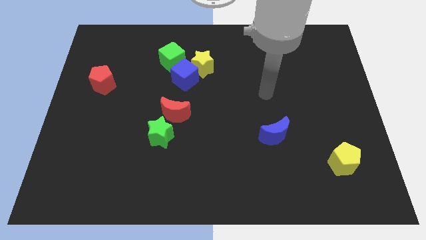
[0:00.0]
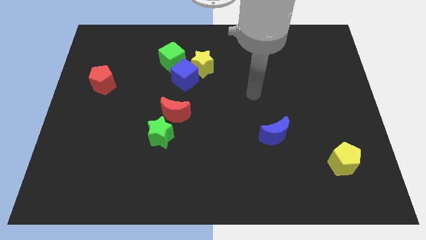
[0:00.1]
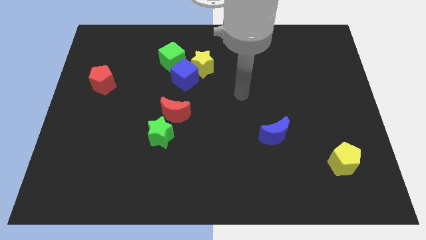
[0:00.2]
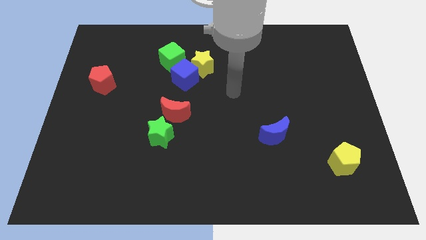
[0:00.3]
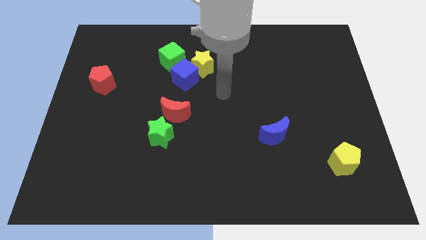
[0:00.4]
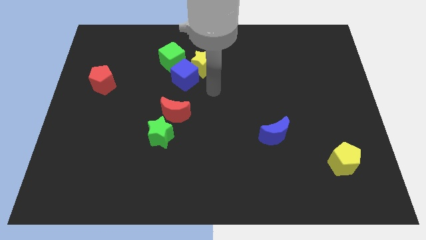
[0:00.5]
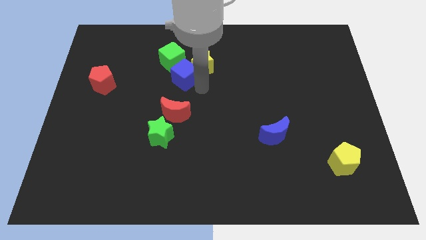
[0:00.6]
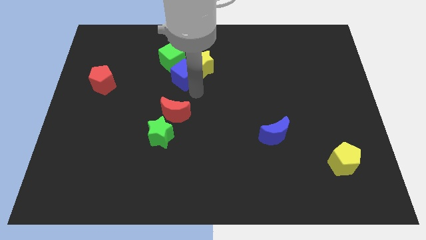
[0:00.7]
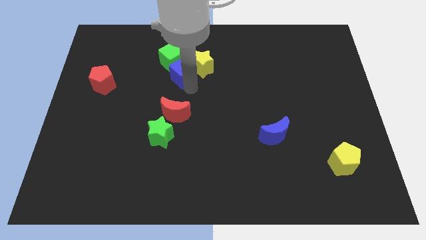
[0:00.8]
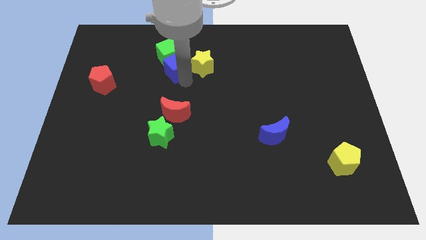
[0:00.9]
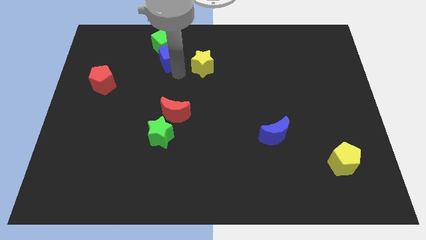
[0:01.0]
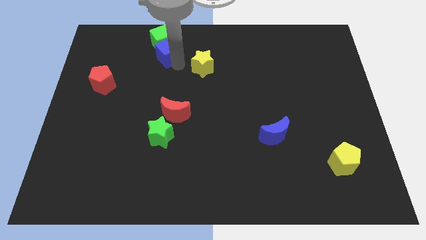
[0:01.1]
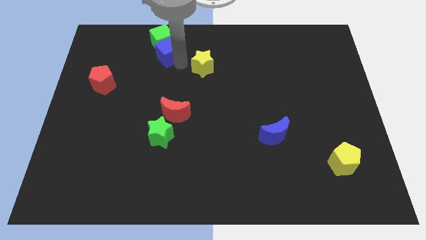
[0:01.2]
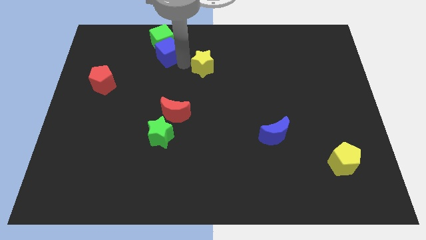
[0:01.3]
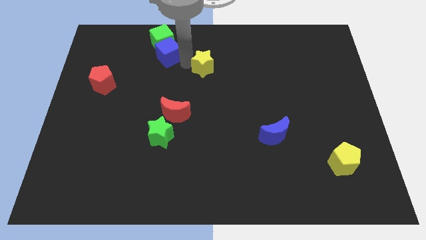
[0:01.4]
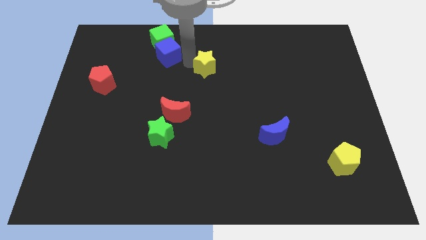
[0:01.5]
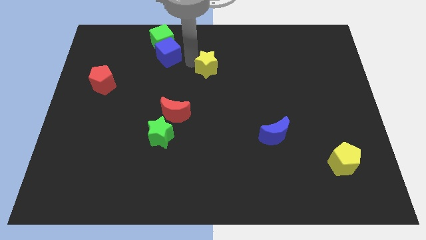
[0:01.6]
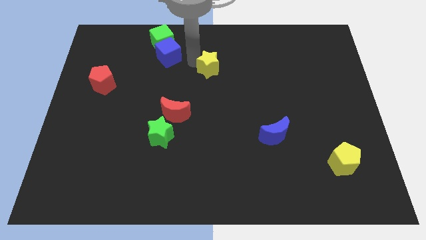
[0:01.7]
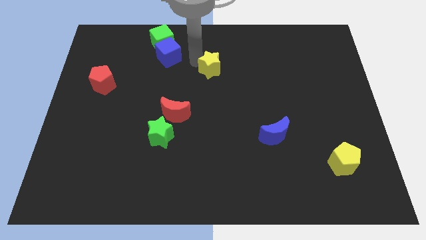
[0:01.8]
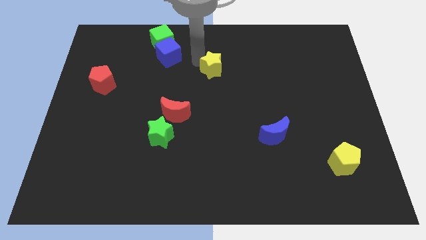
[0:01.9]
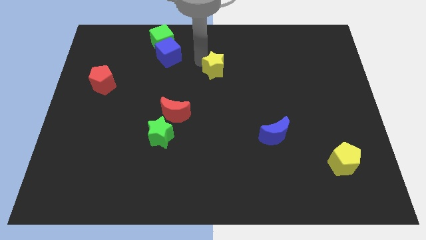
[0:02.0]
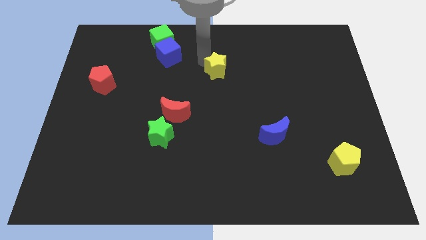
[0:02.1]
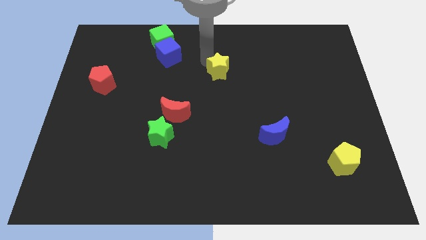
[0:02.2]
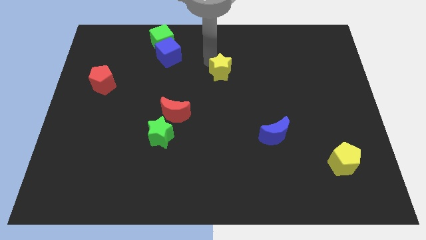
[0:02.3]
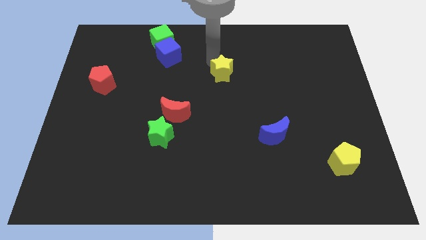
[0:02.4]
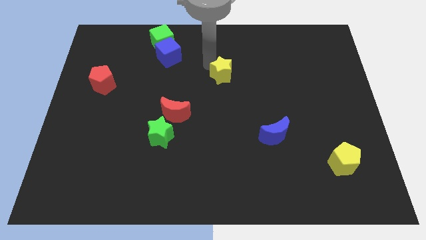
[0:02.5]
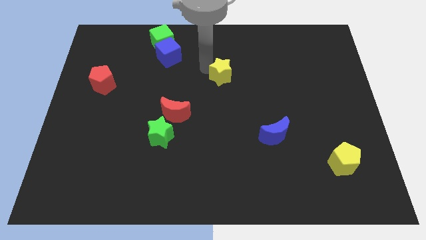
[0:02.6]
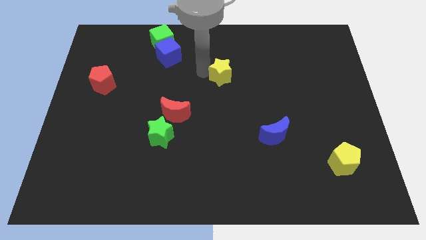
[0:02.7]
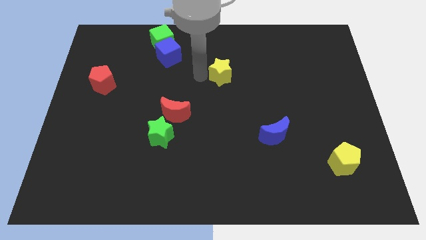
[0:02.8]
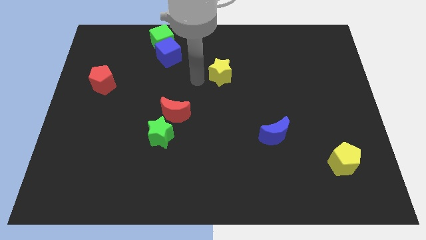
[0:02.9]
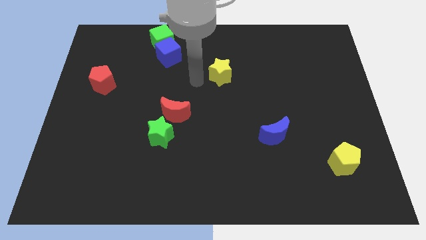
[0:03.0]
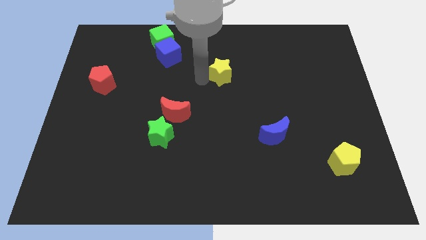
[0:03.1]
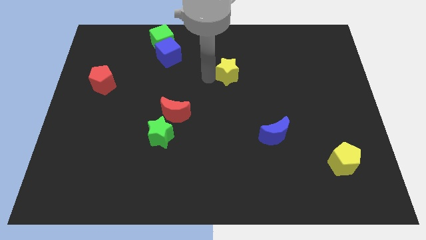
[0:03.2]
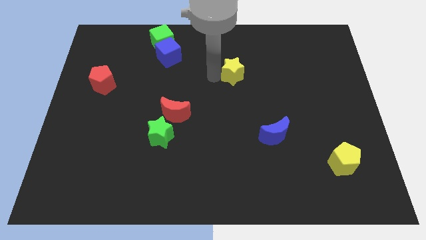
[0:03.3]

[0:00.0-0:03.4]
push the yellow star slightly to the right

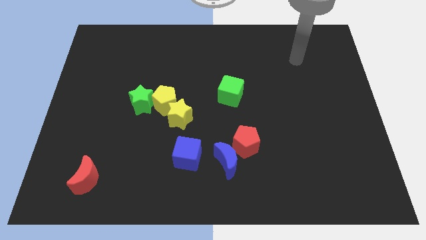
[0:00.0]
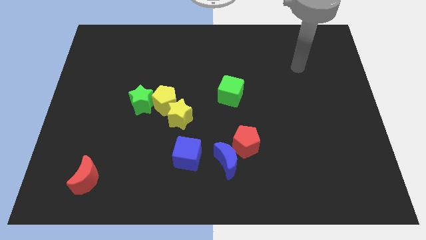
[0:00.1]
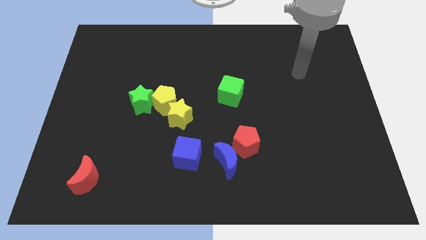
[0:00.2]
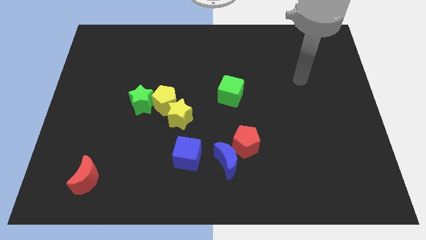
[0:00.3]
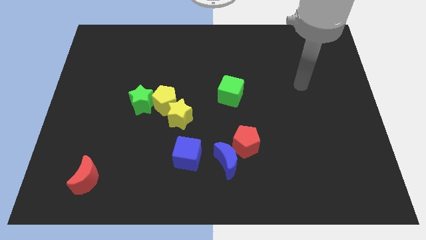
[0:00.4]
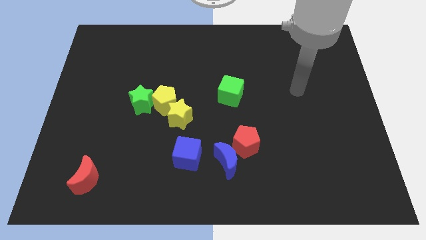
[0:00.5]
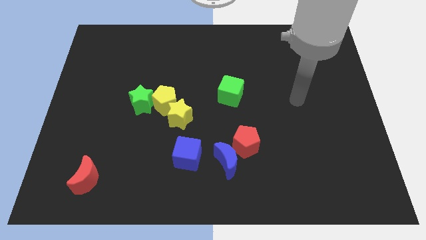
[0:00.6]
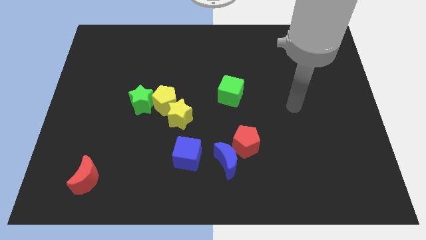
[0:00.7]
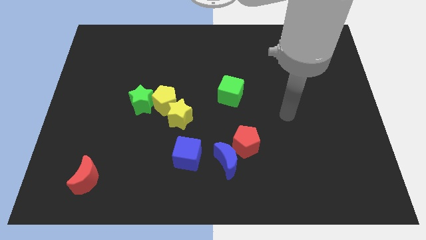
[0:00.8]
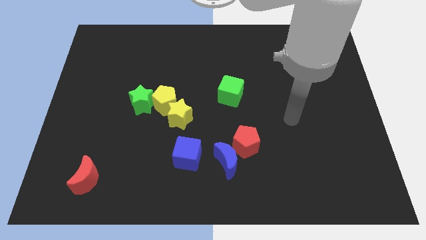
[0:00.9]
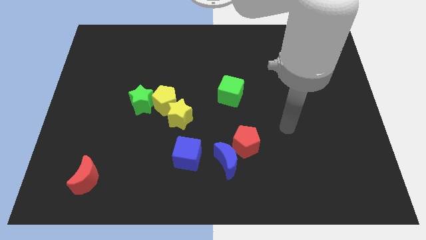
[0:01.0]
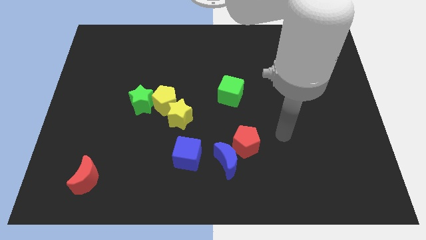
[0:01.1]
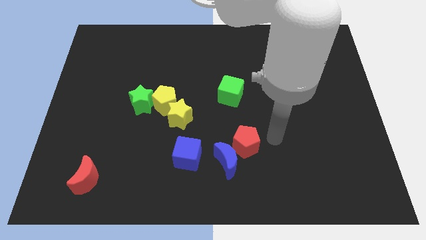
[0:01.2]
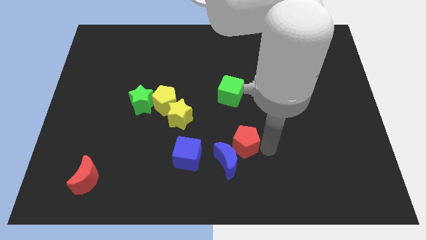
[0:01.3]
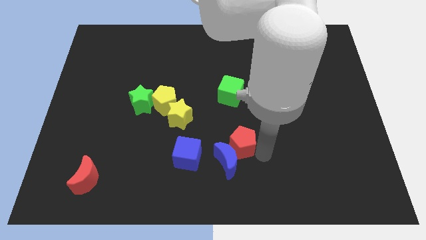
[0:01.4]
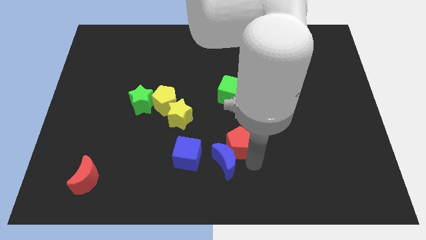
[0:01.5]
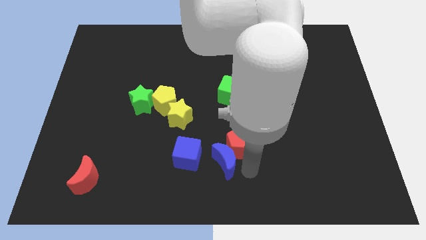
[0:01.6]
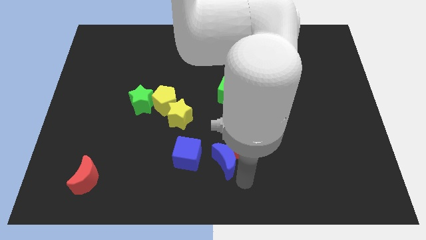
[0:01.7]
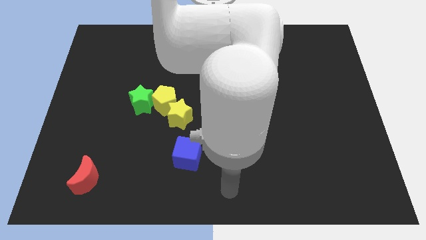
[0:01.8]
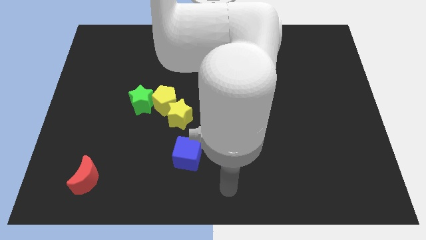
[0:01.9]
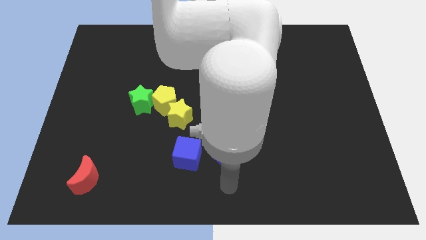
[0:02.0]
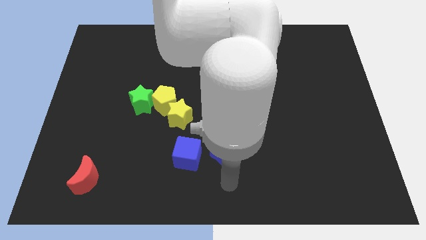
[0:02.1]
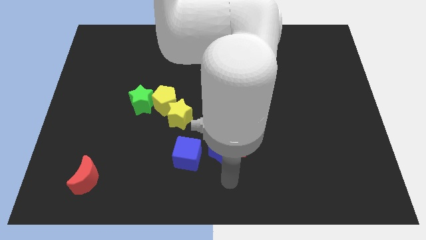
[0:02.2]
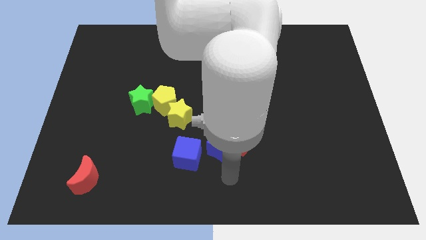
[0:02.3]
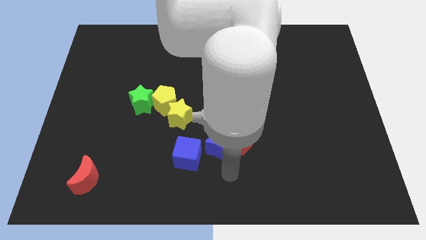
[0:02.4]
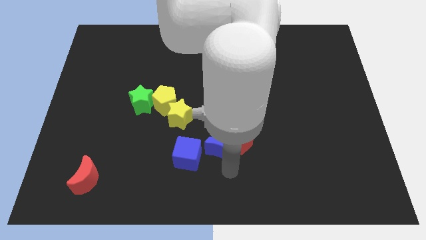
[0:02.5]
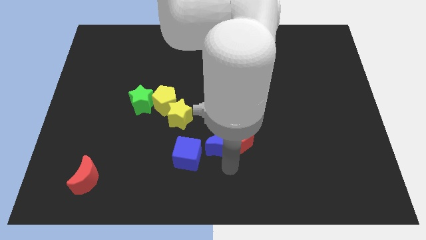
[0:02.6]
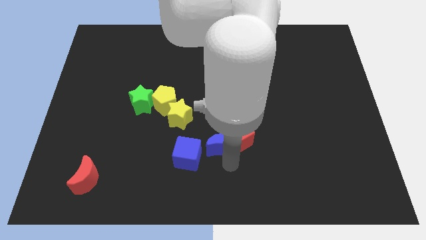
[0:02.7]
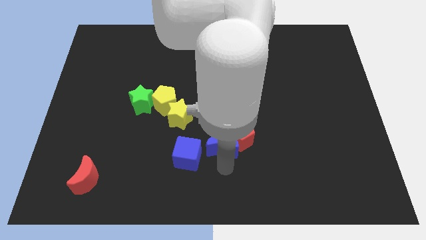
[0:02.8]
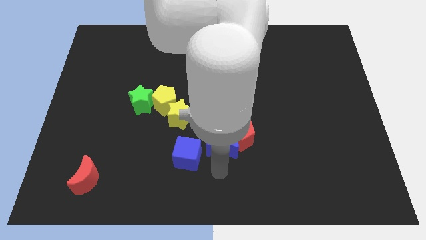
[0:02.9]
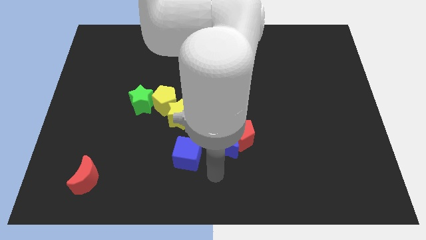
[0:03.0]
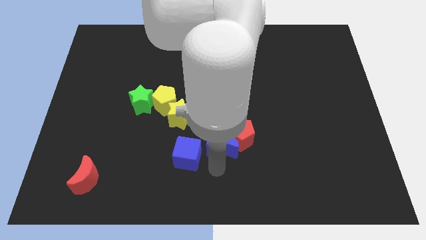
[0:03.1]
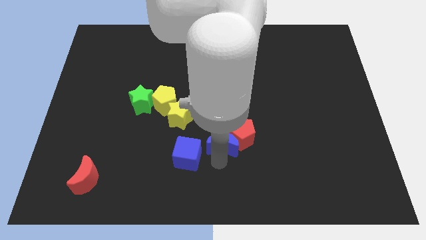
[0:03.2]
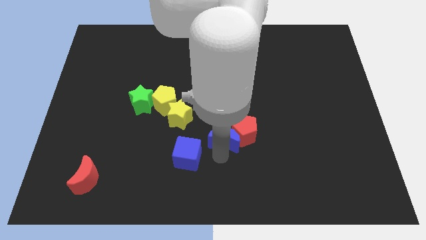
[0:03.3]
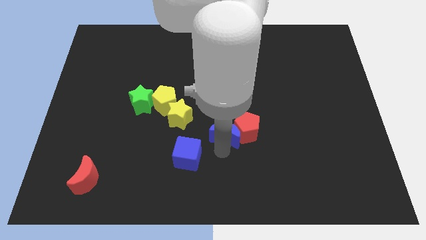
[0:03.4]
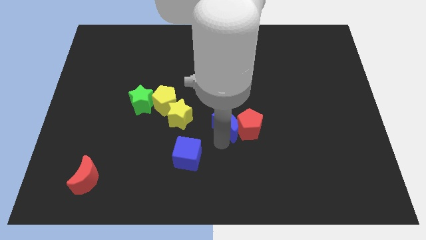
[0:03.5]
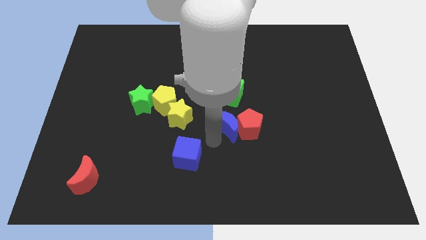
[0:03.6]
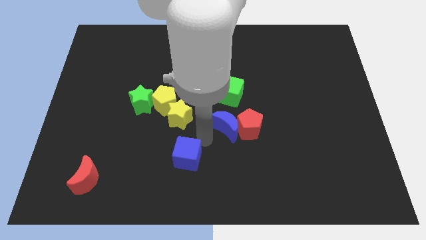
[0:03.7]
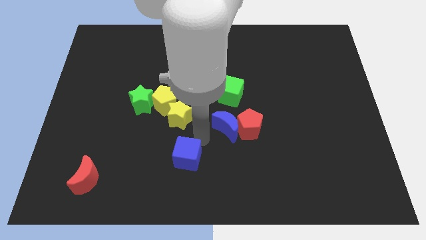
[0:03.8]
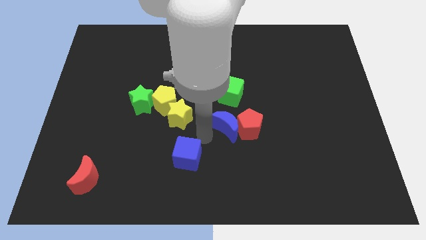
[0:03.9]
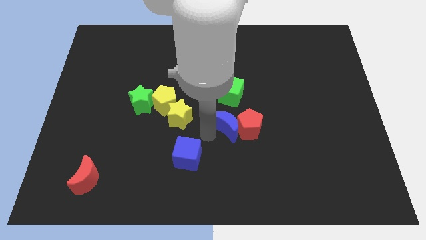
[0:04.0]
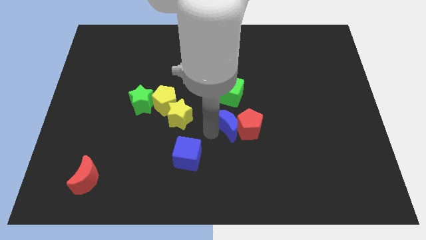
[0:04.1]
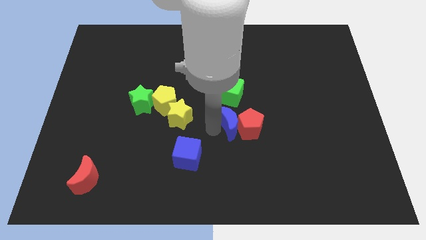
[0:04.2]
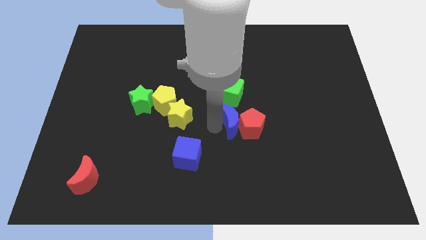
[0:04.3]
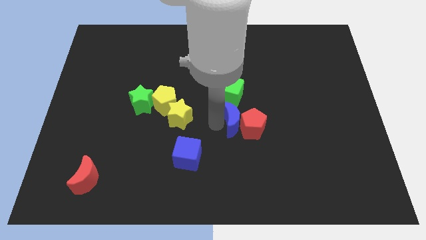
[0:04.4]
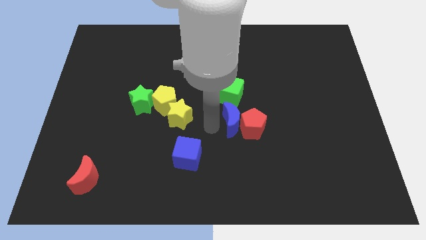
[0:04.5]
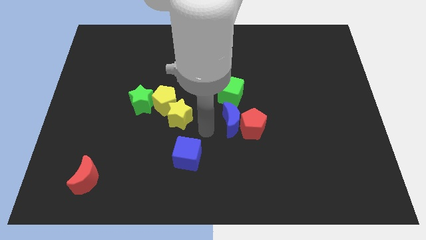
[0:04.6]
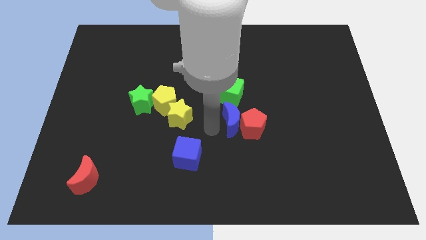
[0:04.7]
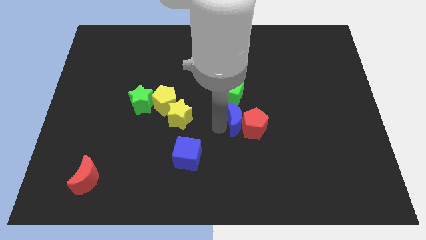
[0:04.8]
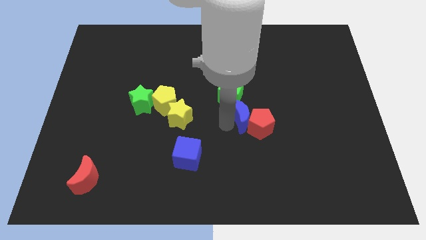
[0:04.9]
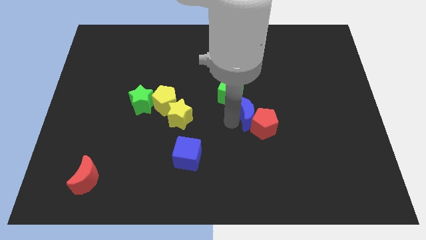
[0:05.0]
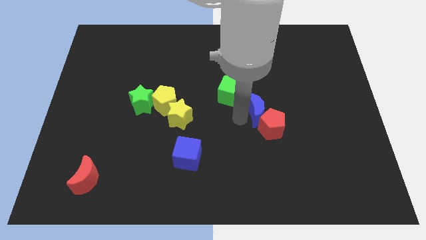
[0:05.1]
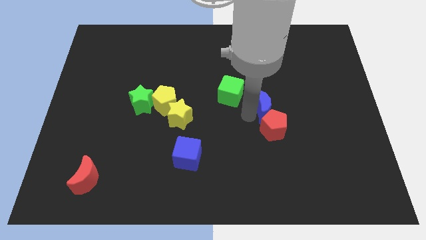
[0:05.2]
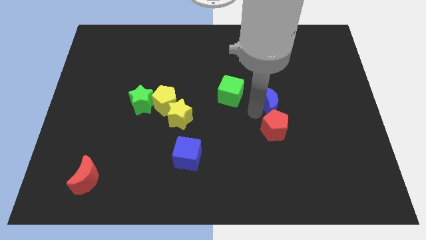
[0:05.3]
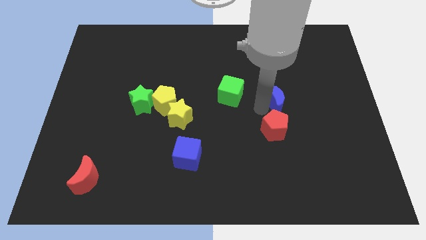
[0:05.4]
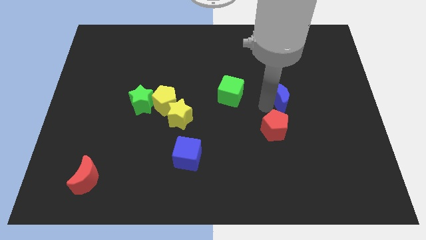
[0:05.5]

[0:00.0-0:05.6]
slide the blue moon diagonally up and right
